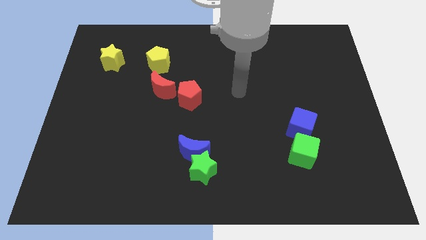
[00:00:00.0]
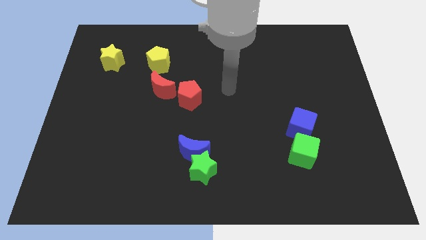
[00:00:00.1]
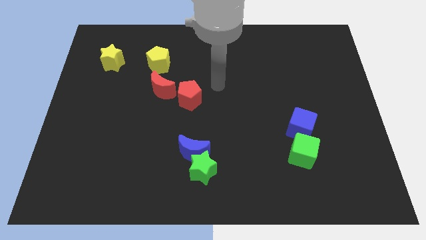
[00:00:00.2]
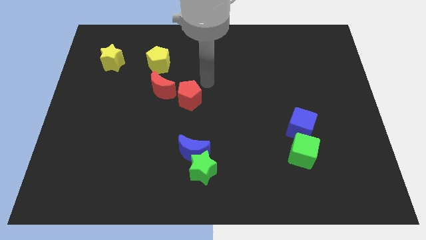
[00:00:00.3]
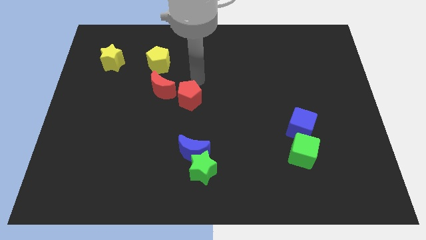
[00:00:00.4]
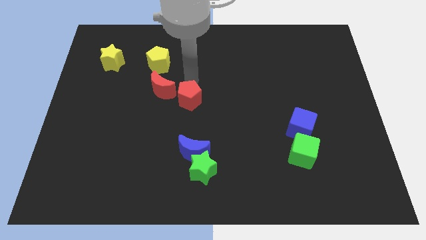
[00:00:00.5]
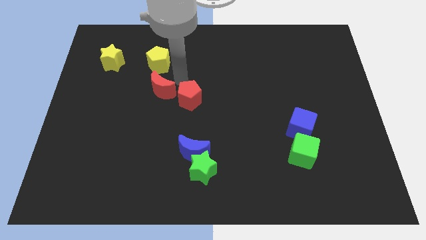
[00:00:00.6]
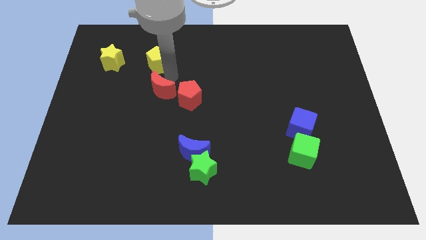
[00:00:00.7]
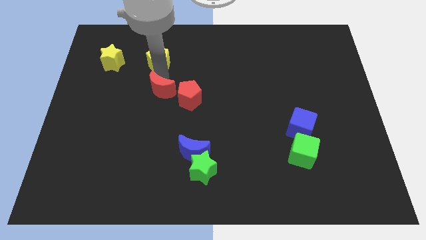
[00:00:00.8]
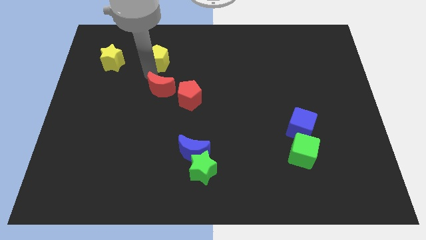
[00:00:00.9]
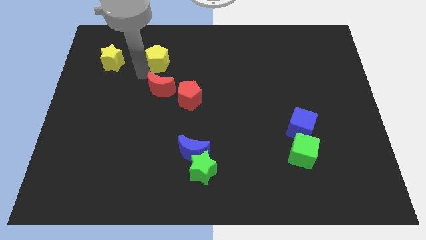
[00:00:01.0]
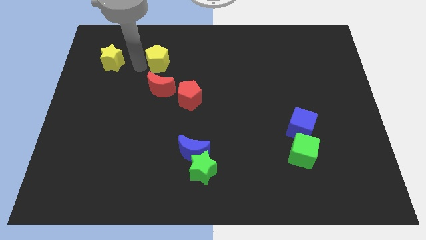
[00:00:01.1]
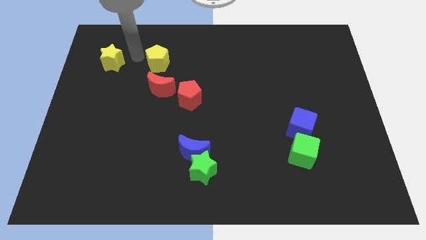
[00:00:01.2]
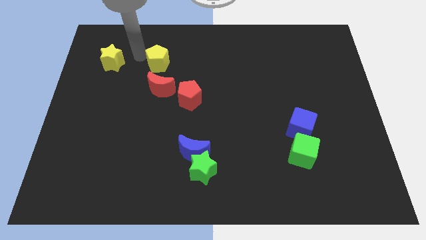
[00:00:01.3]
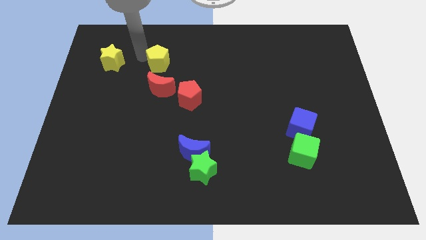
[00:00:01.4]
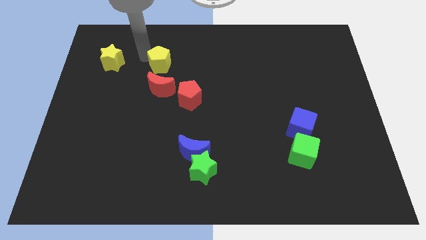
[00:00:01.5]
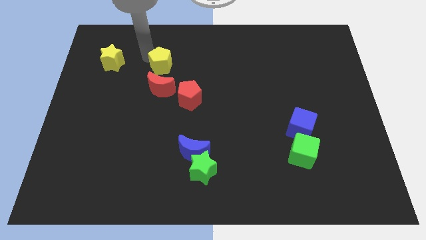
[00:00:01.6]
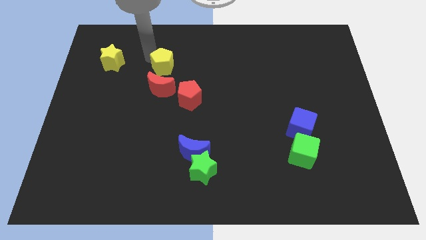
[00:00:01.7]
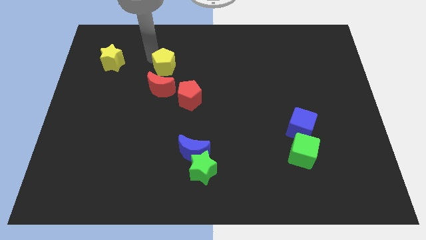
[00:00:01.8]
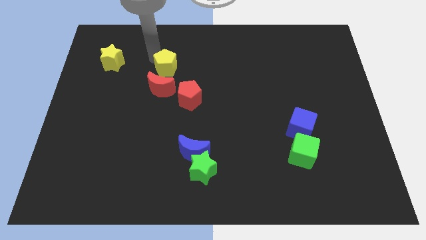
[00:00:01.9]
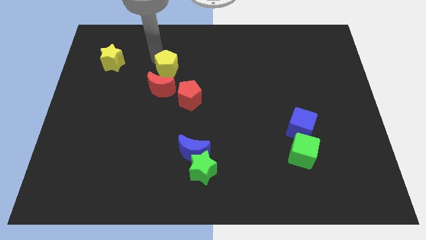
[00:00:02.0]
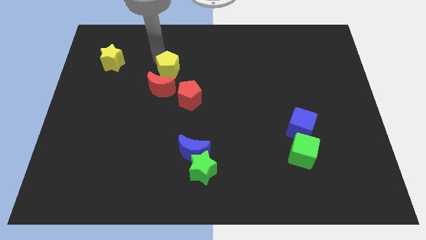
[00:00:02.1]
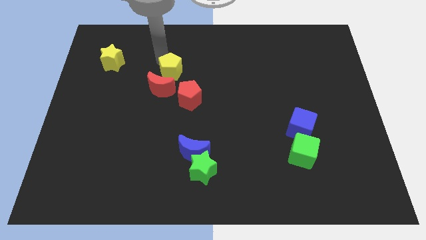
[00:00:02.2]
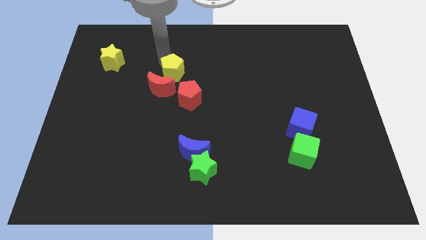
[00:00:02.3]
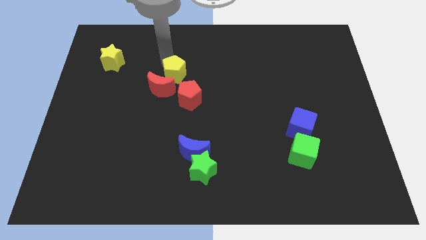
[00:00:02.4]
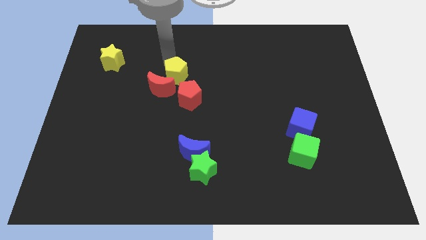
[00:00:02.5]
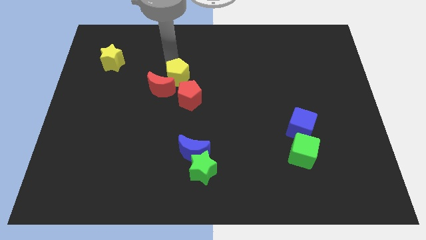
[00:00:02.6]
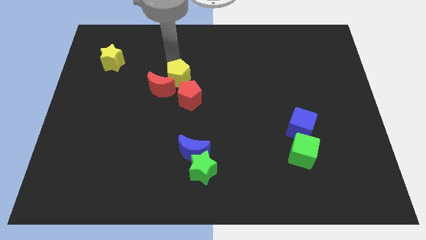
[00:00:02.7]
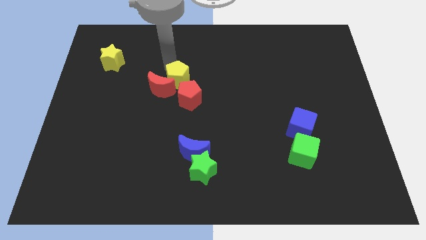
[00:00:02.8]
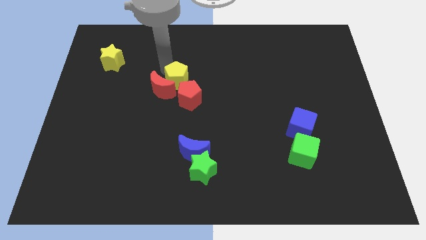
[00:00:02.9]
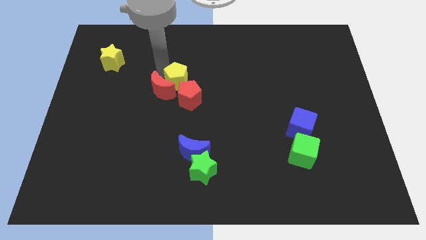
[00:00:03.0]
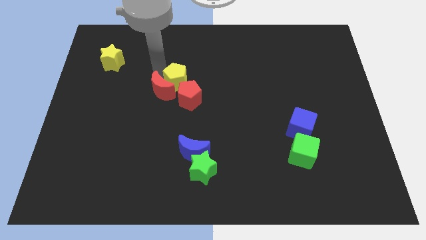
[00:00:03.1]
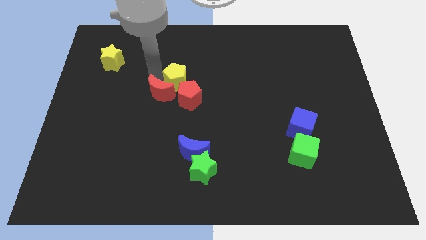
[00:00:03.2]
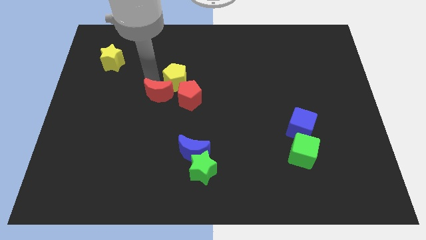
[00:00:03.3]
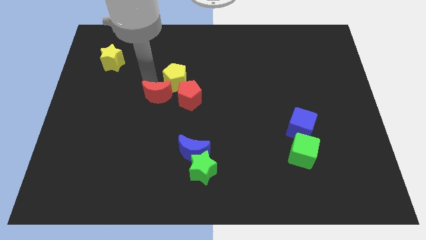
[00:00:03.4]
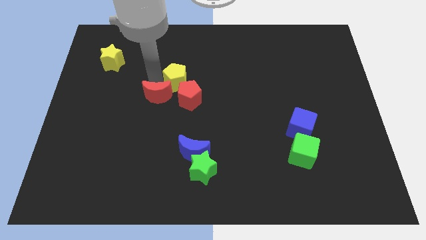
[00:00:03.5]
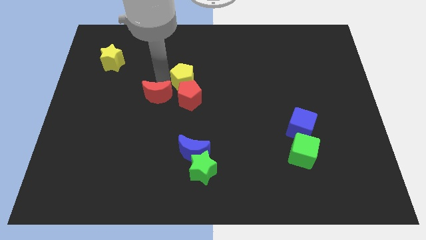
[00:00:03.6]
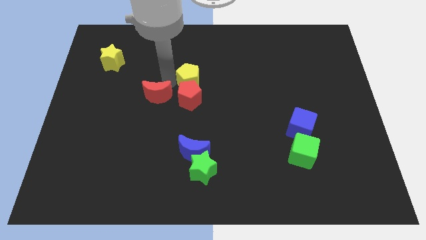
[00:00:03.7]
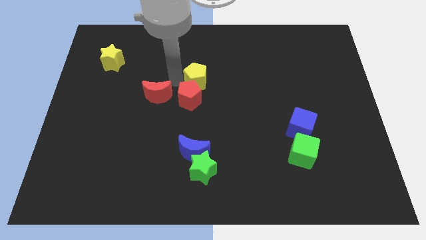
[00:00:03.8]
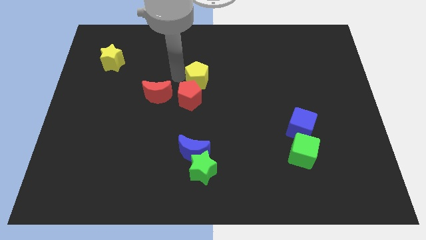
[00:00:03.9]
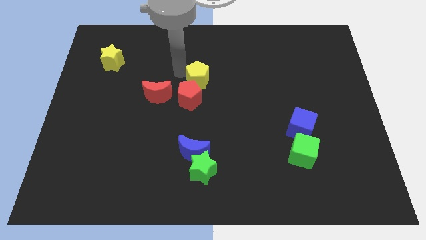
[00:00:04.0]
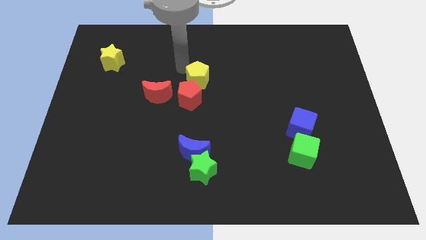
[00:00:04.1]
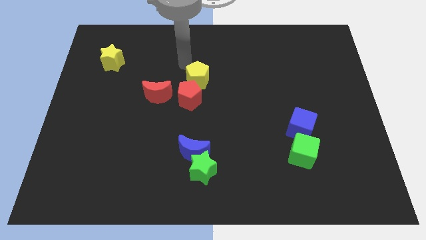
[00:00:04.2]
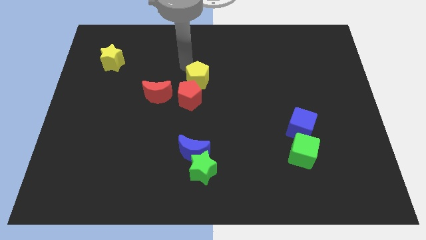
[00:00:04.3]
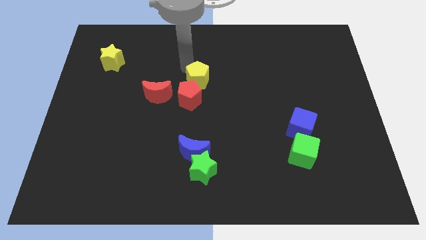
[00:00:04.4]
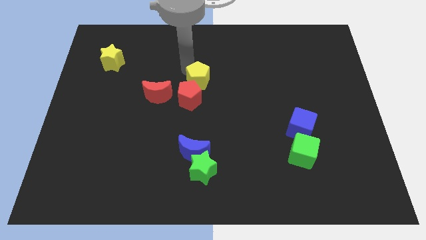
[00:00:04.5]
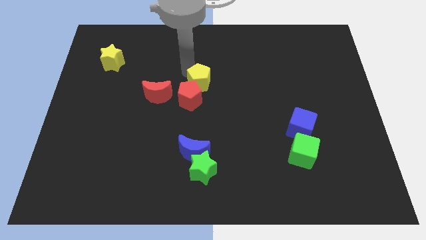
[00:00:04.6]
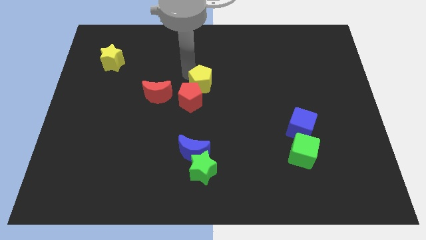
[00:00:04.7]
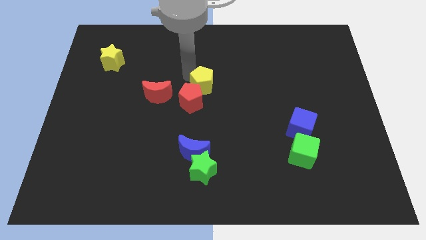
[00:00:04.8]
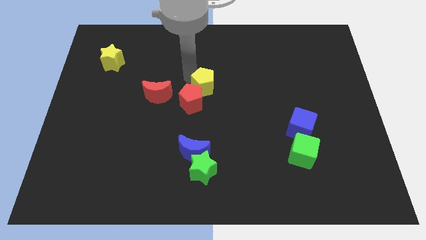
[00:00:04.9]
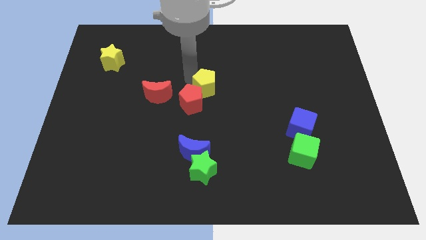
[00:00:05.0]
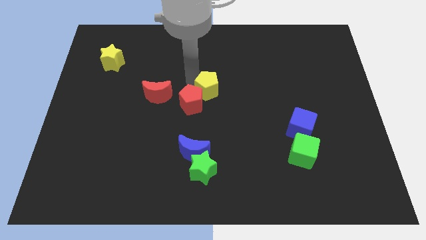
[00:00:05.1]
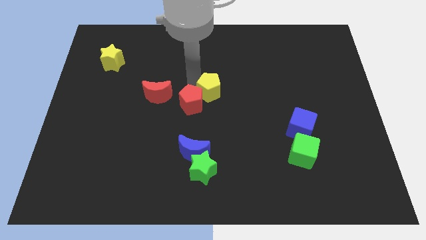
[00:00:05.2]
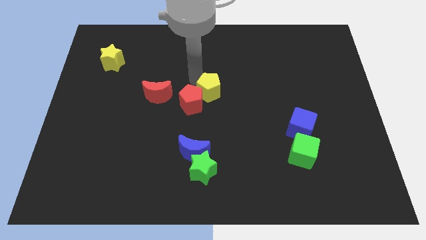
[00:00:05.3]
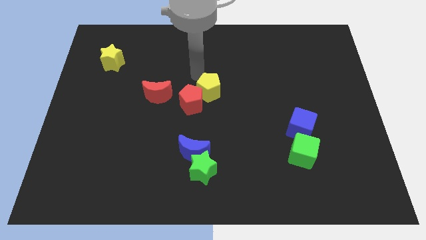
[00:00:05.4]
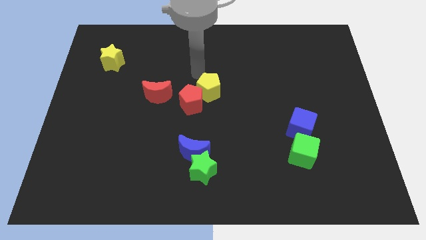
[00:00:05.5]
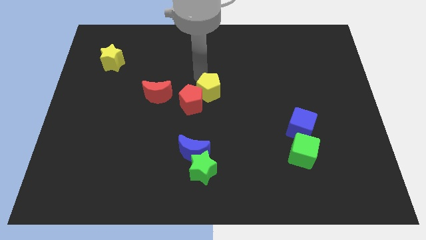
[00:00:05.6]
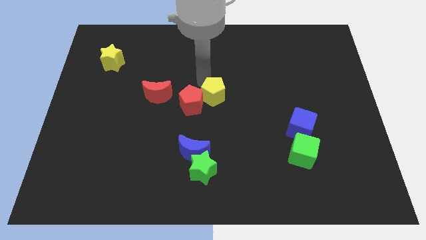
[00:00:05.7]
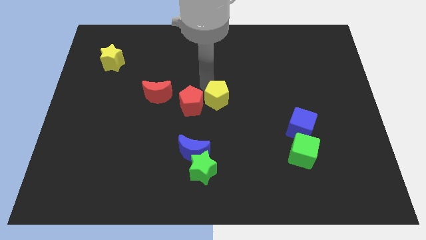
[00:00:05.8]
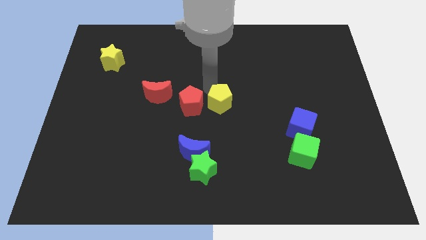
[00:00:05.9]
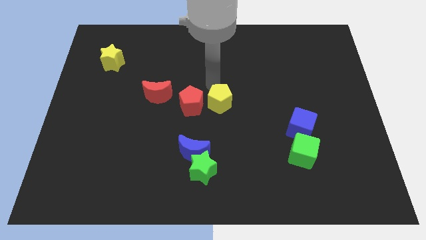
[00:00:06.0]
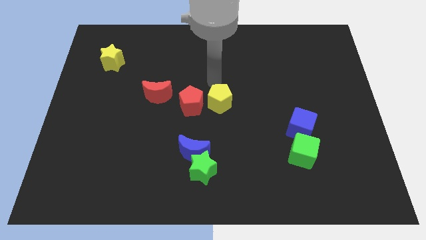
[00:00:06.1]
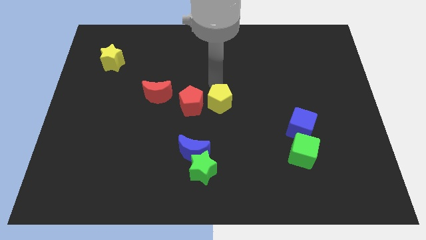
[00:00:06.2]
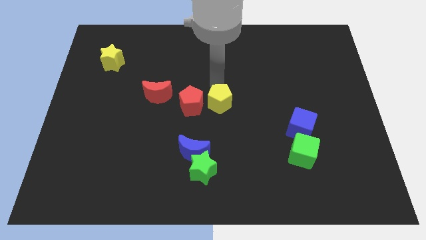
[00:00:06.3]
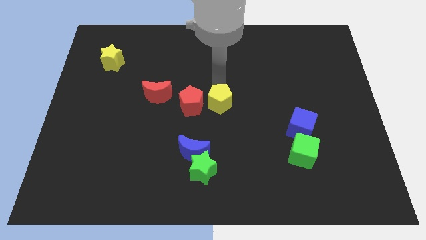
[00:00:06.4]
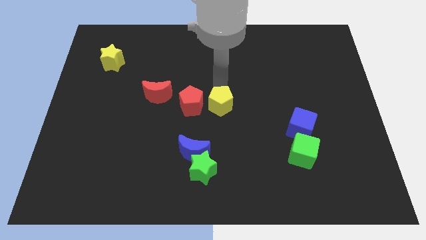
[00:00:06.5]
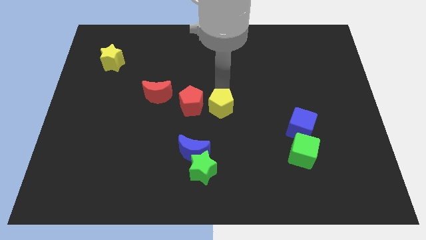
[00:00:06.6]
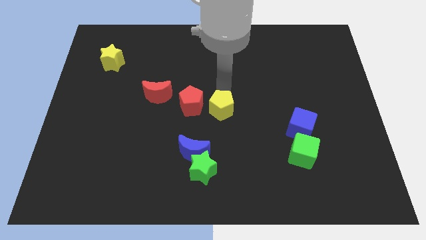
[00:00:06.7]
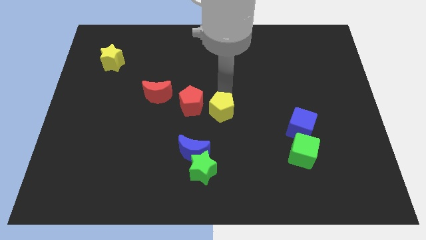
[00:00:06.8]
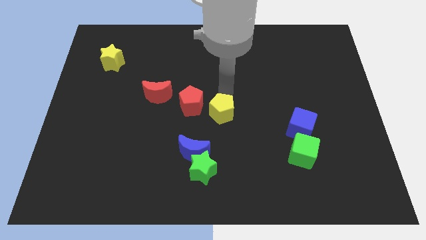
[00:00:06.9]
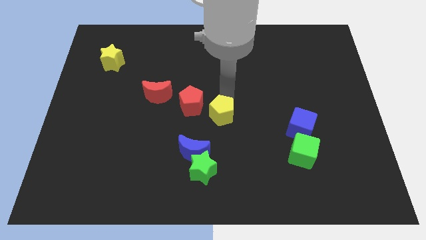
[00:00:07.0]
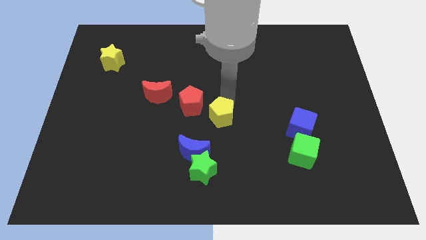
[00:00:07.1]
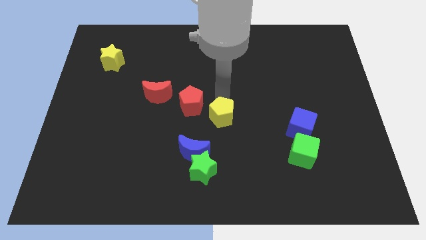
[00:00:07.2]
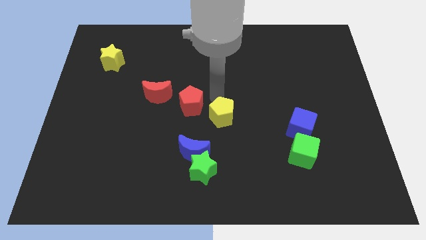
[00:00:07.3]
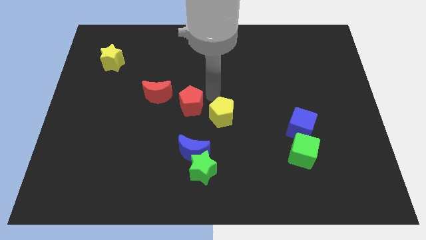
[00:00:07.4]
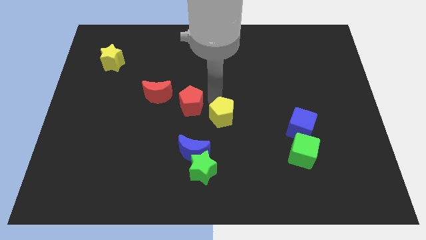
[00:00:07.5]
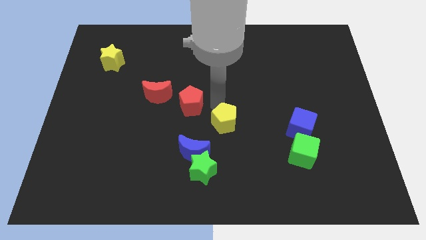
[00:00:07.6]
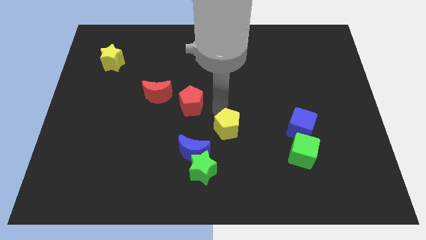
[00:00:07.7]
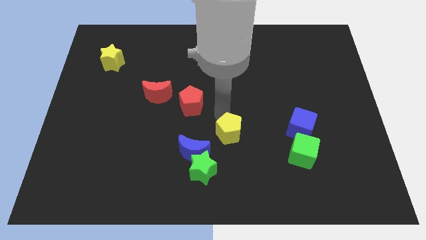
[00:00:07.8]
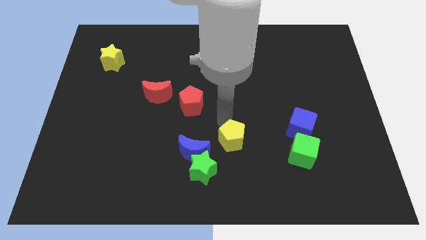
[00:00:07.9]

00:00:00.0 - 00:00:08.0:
push the yellow pentagon to the right of the blue moon
